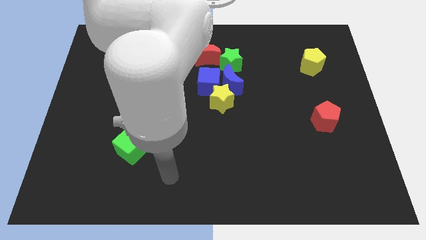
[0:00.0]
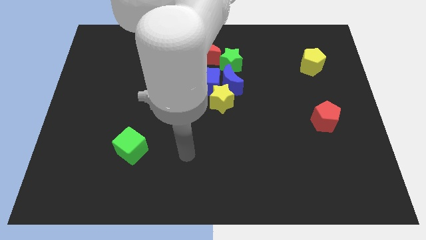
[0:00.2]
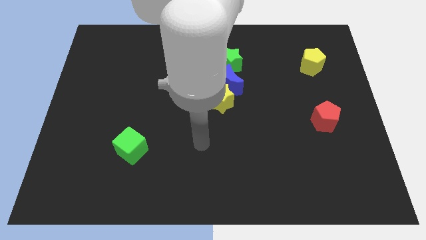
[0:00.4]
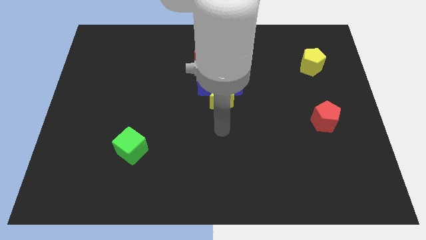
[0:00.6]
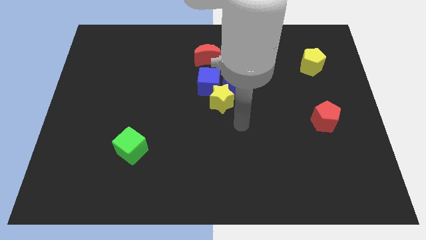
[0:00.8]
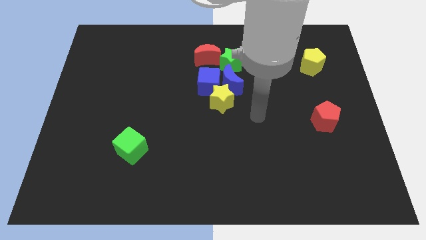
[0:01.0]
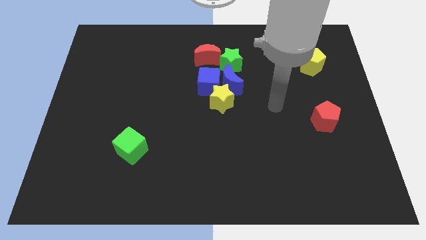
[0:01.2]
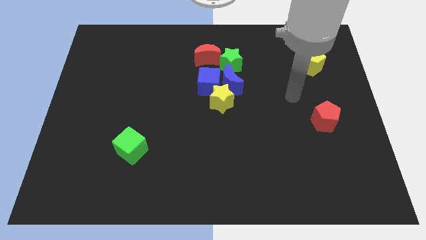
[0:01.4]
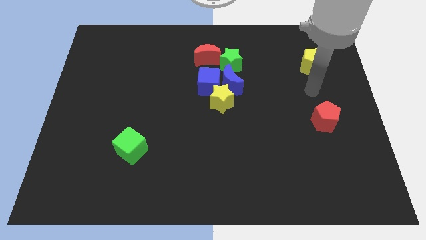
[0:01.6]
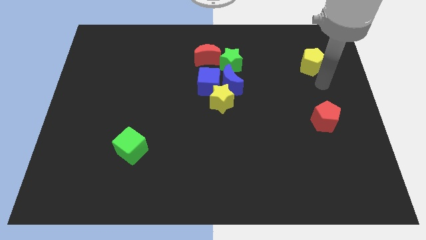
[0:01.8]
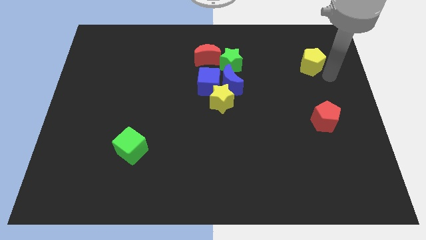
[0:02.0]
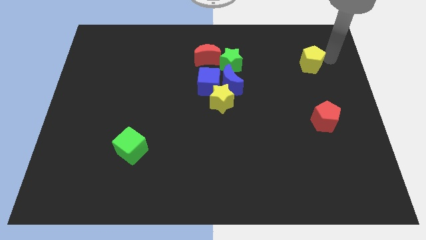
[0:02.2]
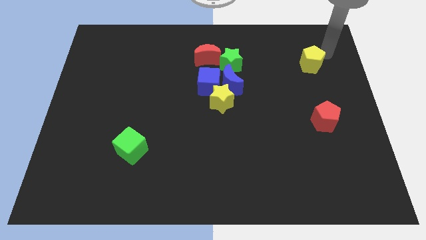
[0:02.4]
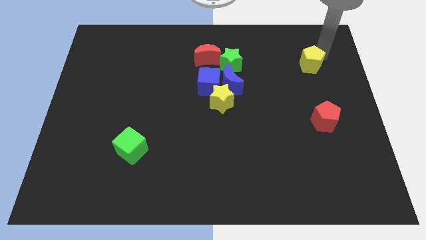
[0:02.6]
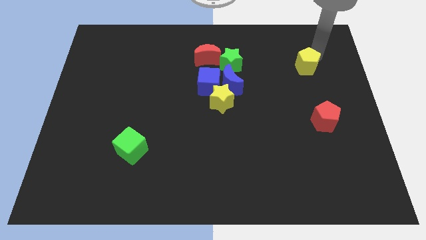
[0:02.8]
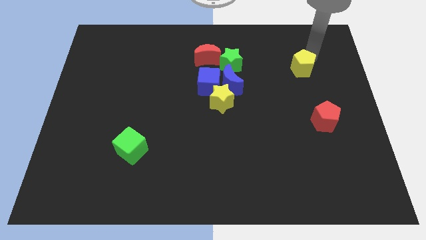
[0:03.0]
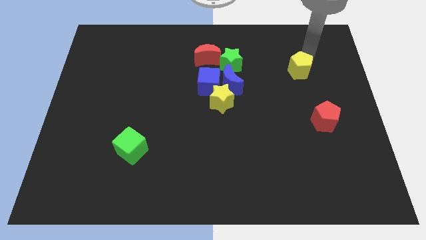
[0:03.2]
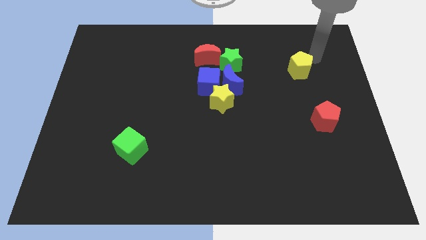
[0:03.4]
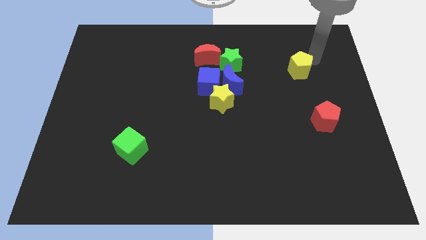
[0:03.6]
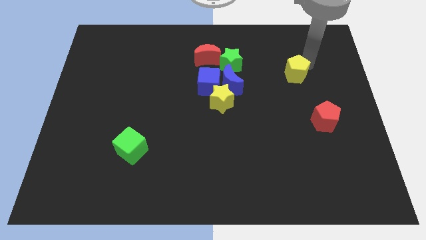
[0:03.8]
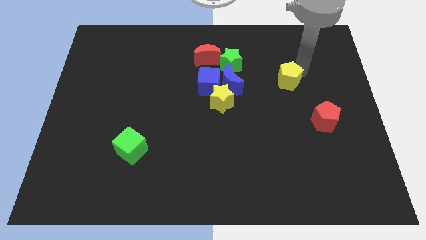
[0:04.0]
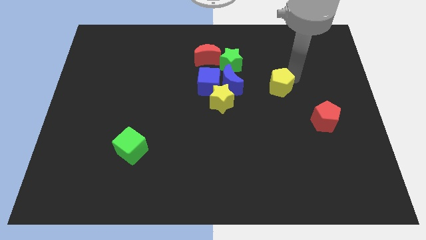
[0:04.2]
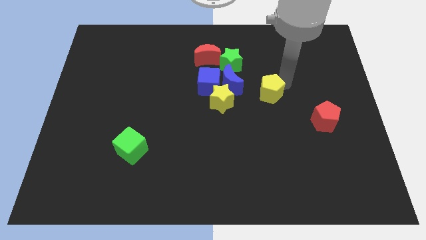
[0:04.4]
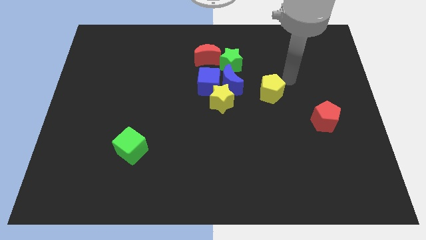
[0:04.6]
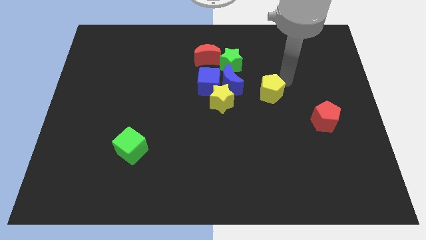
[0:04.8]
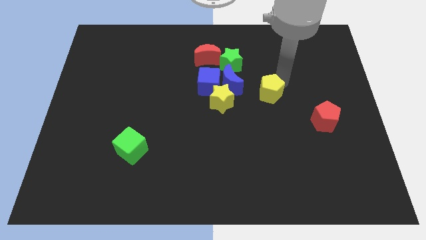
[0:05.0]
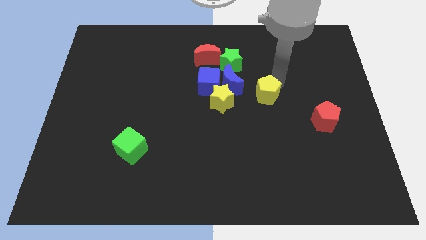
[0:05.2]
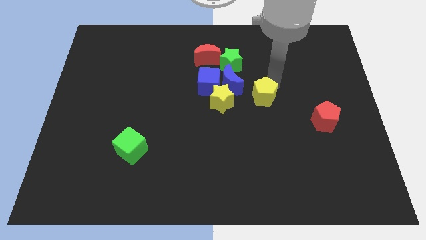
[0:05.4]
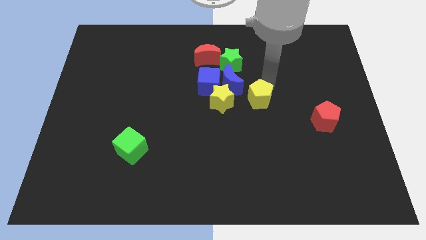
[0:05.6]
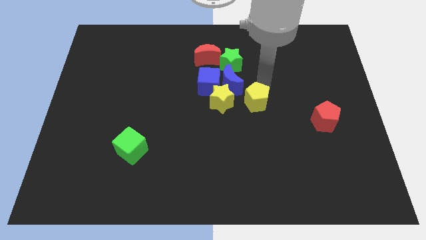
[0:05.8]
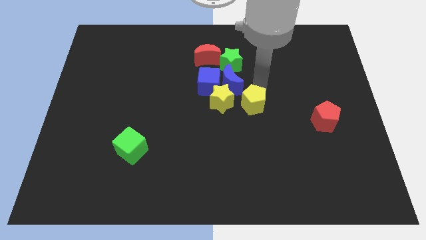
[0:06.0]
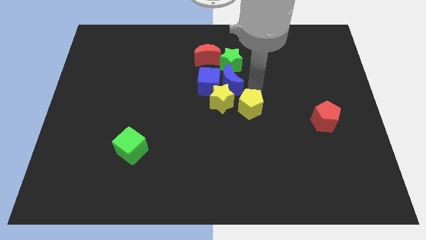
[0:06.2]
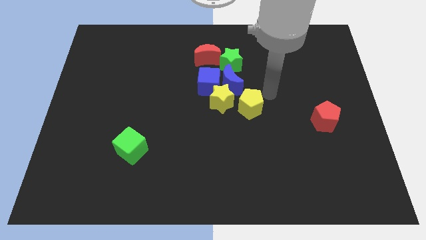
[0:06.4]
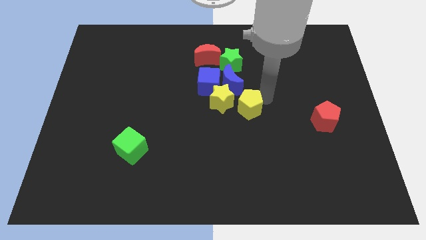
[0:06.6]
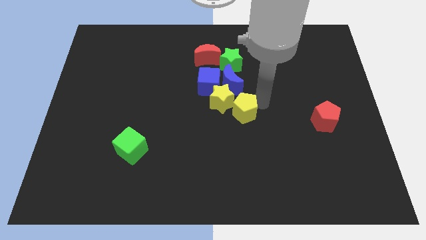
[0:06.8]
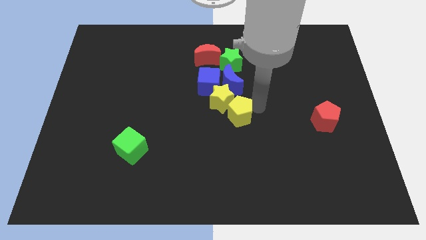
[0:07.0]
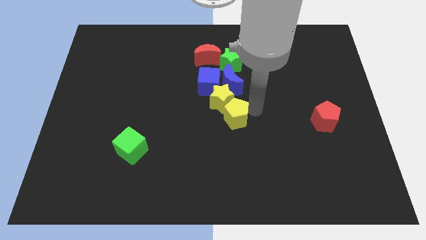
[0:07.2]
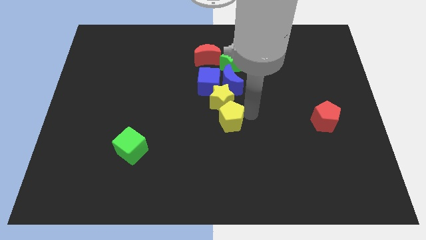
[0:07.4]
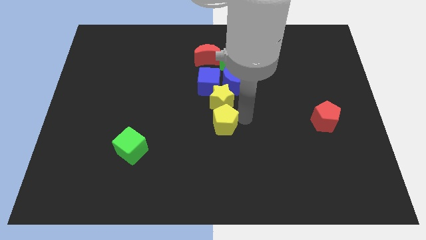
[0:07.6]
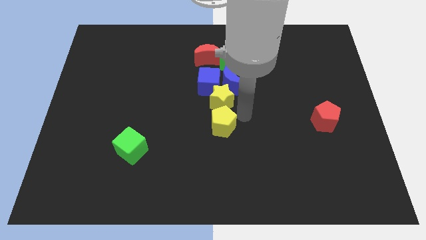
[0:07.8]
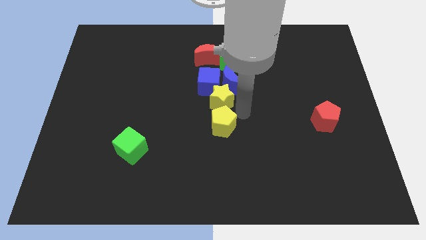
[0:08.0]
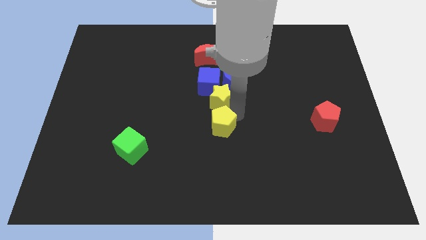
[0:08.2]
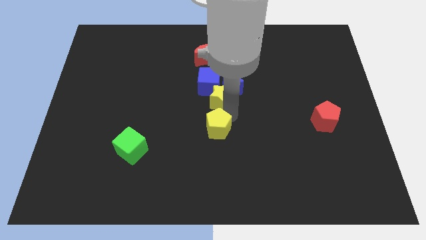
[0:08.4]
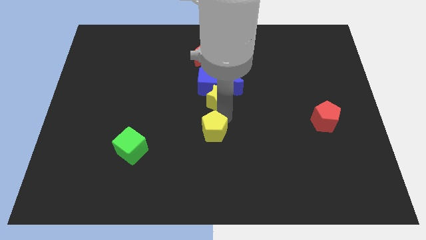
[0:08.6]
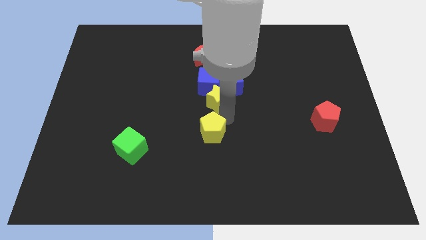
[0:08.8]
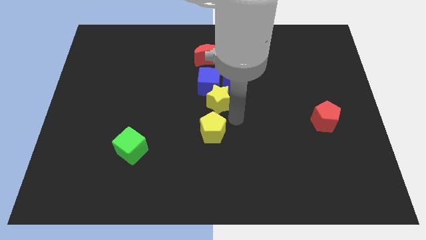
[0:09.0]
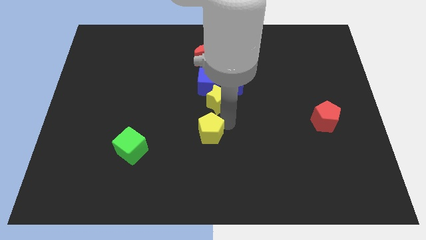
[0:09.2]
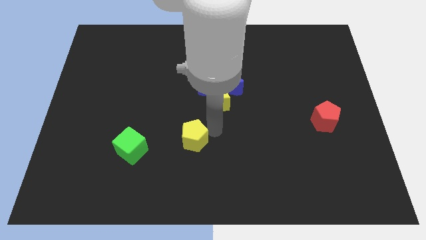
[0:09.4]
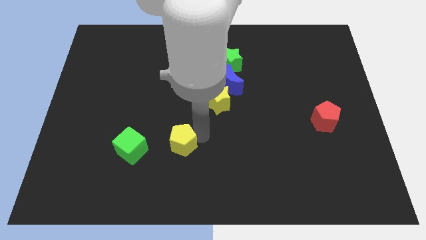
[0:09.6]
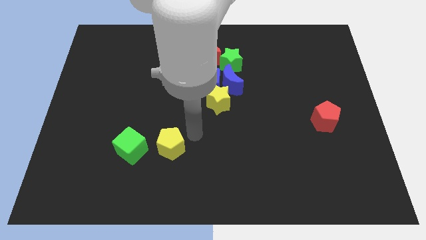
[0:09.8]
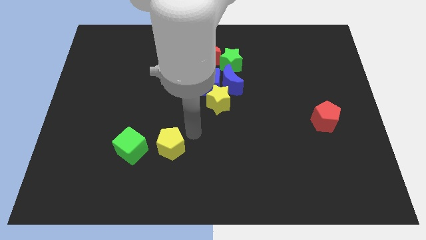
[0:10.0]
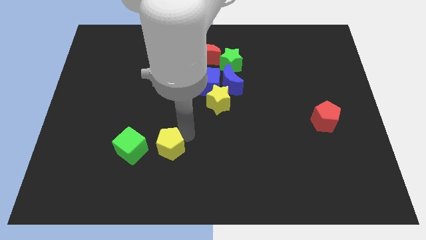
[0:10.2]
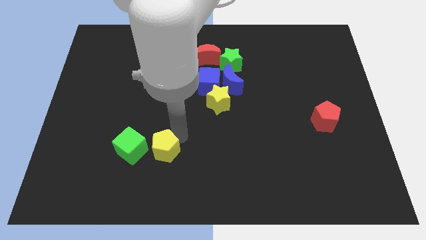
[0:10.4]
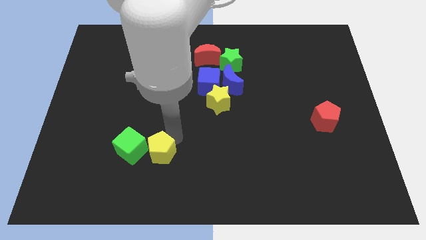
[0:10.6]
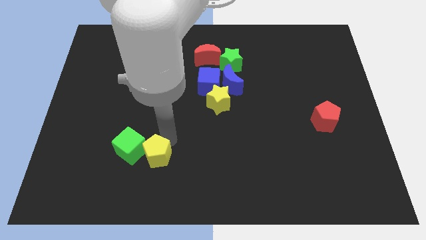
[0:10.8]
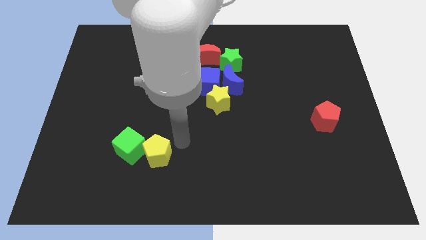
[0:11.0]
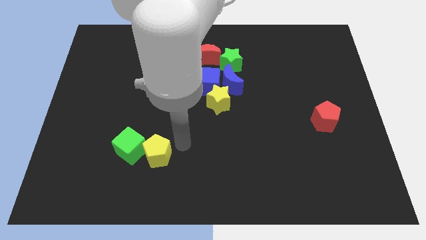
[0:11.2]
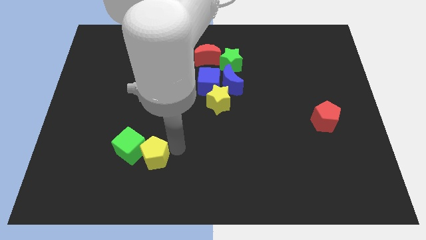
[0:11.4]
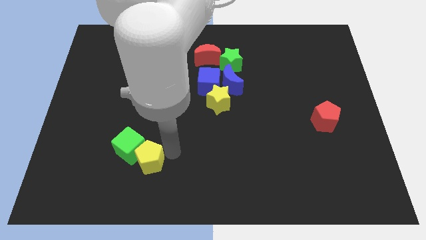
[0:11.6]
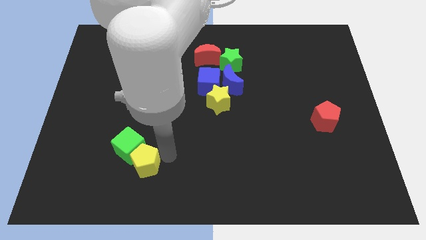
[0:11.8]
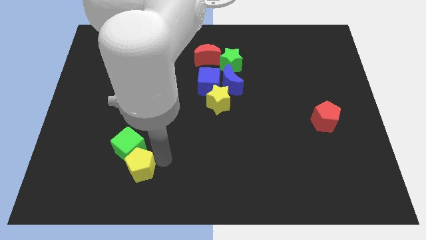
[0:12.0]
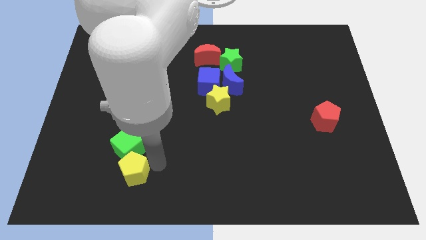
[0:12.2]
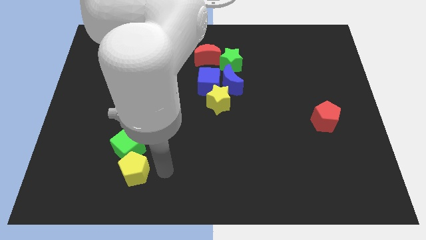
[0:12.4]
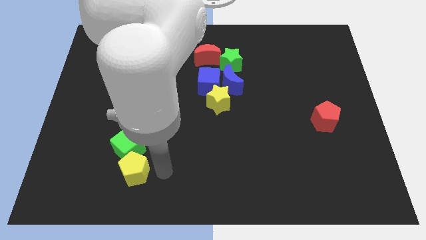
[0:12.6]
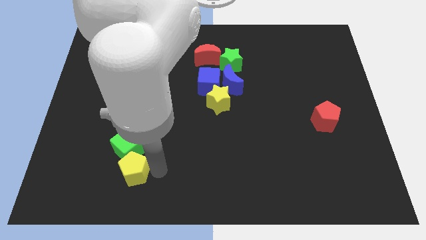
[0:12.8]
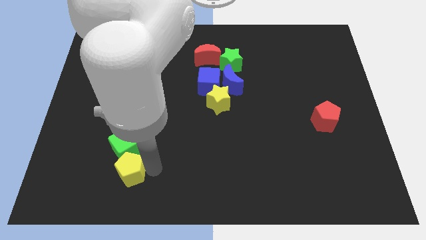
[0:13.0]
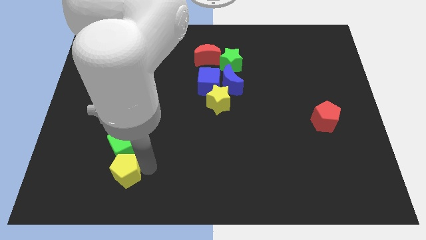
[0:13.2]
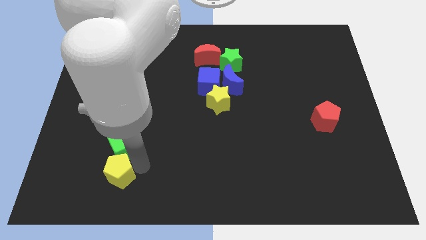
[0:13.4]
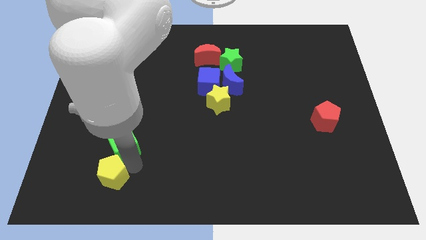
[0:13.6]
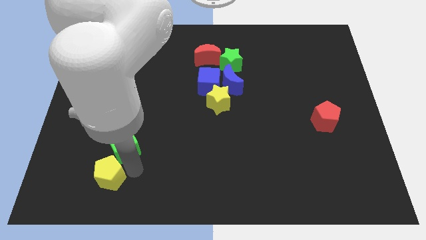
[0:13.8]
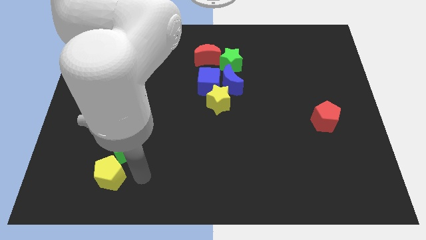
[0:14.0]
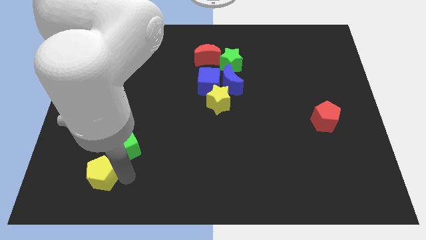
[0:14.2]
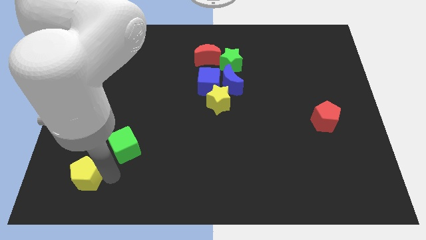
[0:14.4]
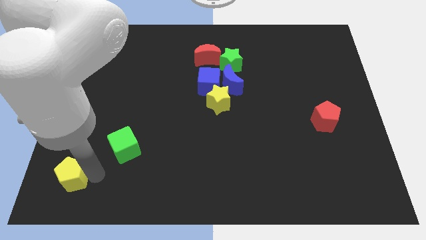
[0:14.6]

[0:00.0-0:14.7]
push the yellow pentagon to the bottom left corner
